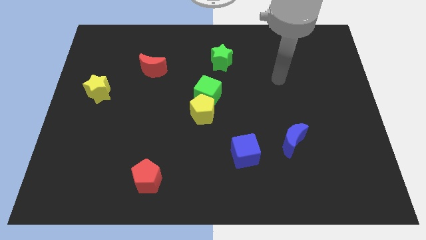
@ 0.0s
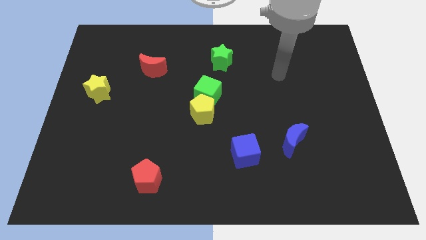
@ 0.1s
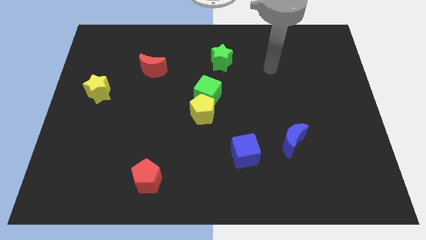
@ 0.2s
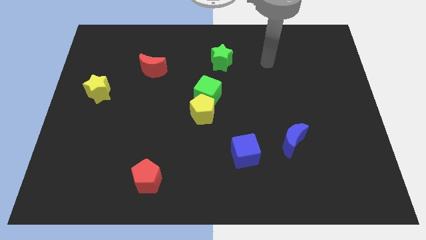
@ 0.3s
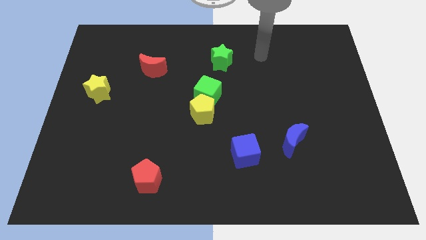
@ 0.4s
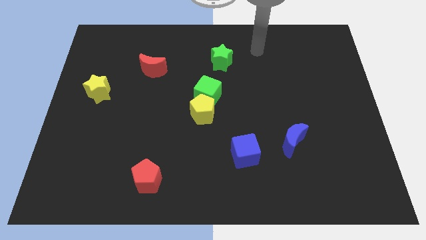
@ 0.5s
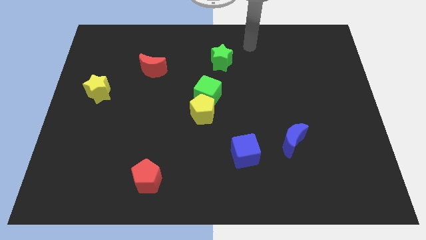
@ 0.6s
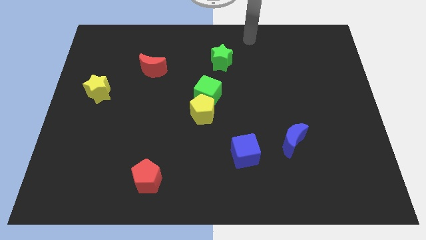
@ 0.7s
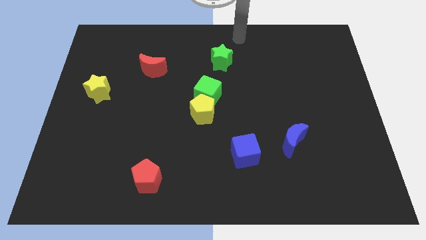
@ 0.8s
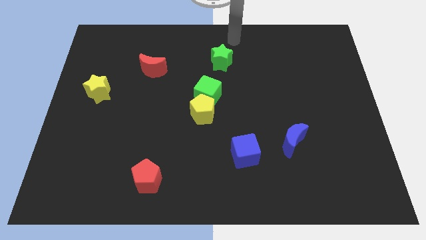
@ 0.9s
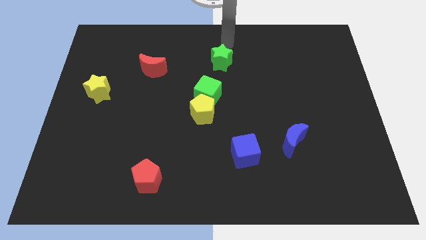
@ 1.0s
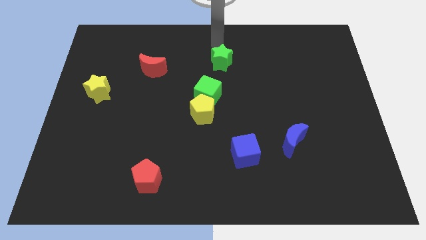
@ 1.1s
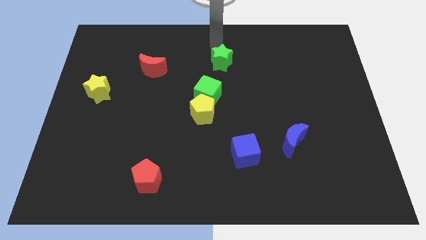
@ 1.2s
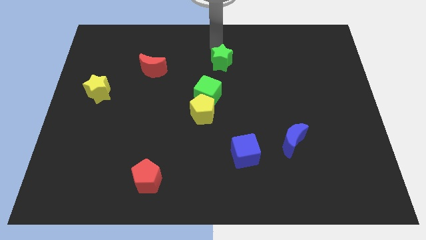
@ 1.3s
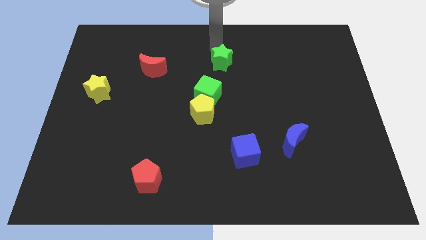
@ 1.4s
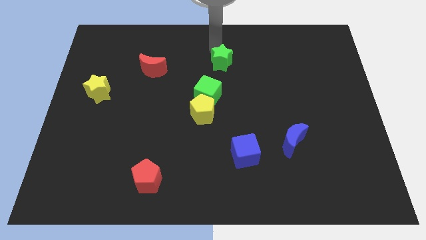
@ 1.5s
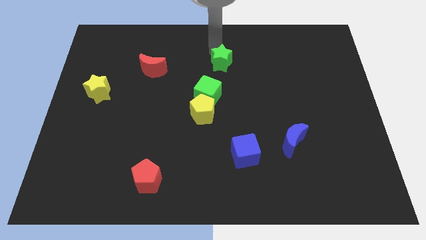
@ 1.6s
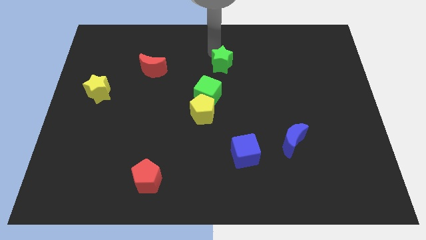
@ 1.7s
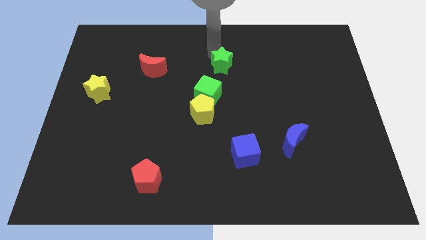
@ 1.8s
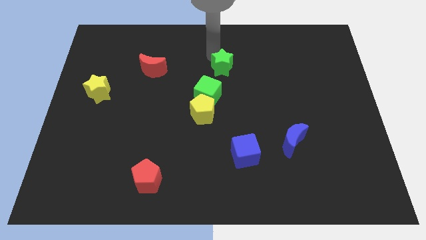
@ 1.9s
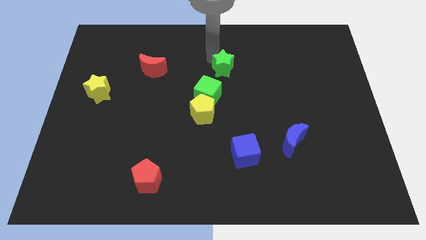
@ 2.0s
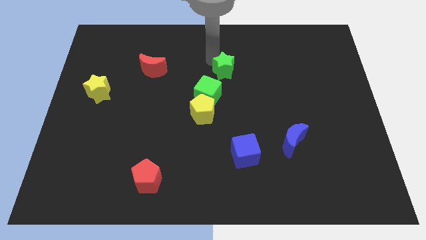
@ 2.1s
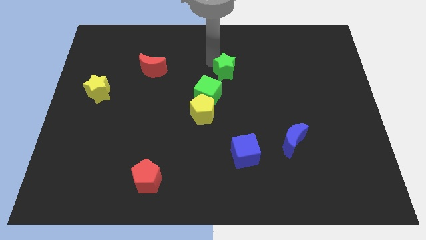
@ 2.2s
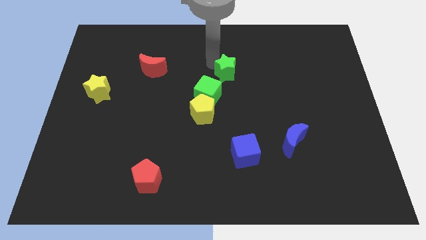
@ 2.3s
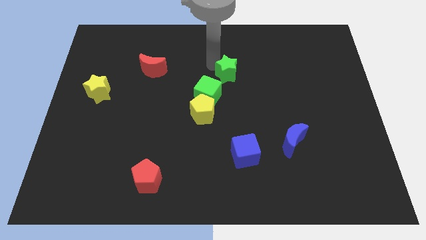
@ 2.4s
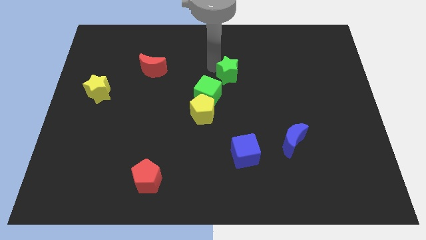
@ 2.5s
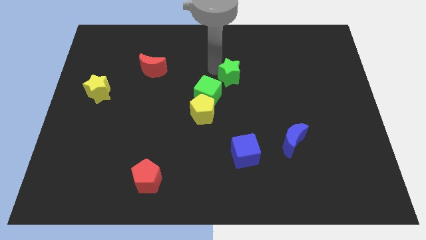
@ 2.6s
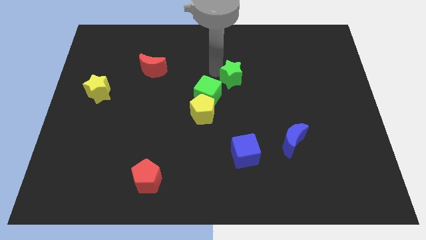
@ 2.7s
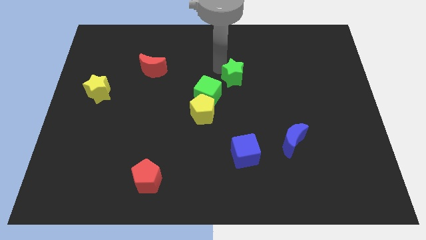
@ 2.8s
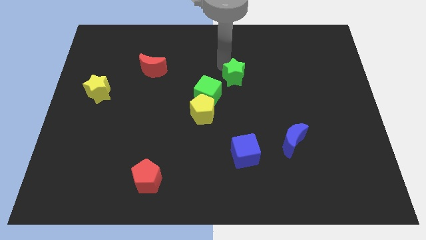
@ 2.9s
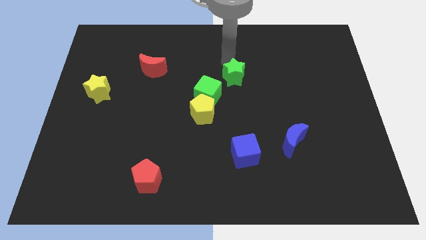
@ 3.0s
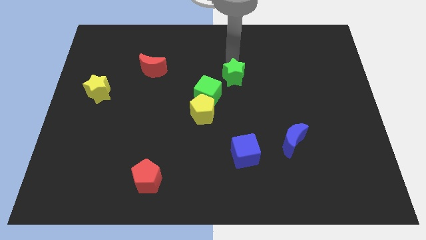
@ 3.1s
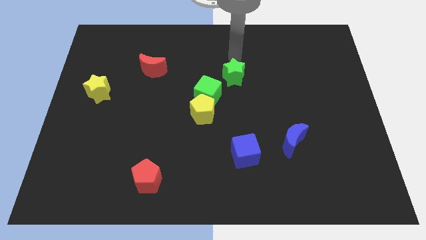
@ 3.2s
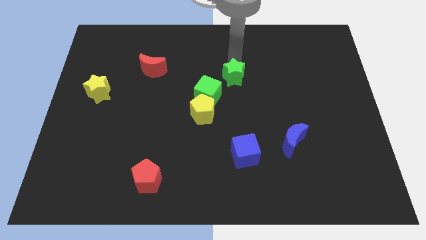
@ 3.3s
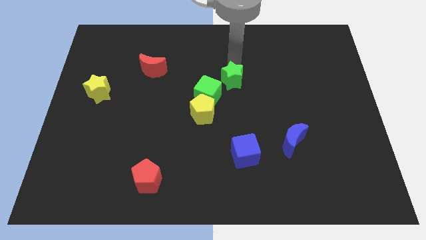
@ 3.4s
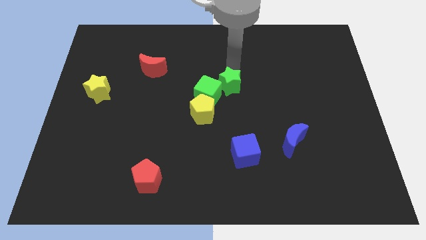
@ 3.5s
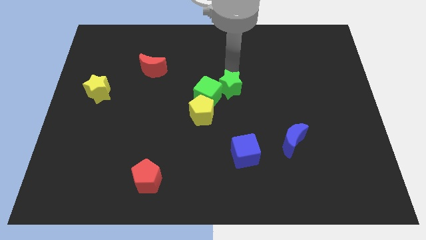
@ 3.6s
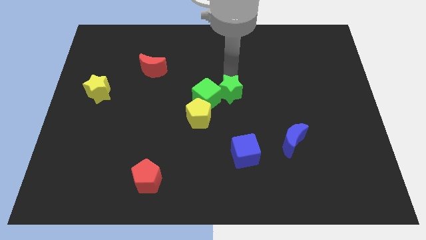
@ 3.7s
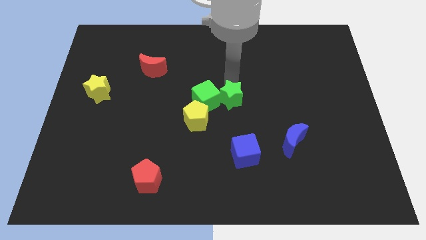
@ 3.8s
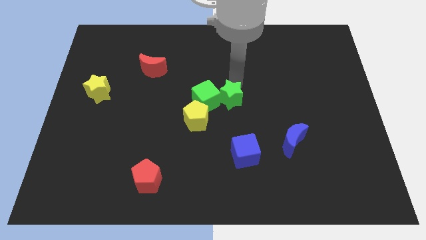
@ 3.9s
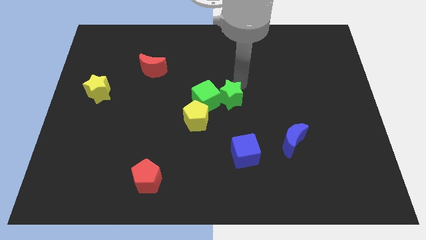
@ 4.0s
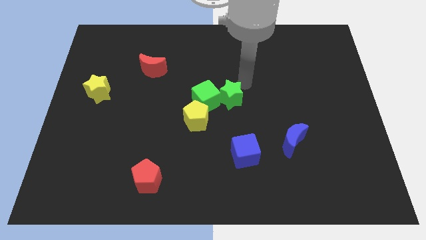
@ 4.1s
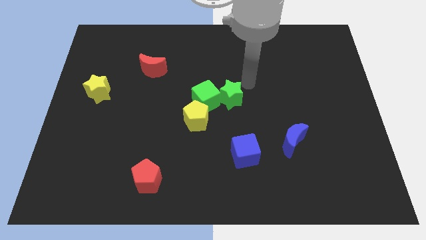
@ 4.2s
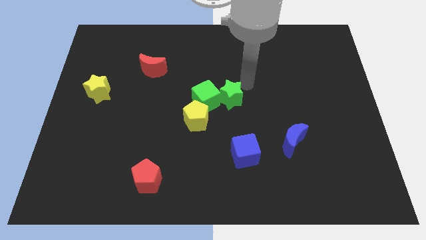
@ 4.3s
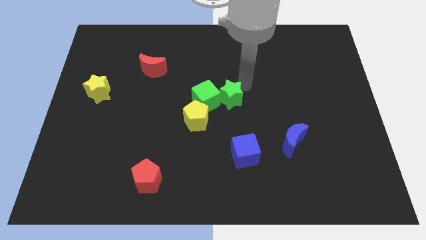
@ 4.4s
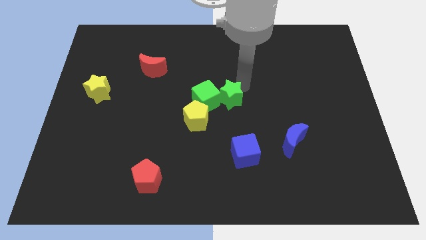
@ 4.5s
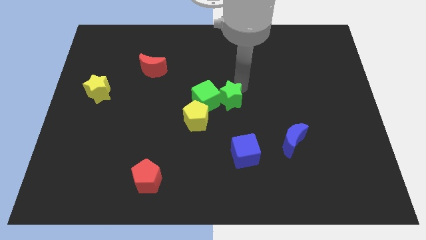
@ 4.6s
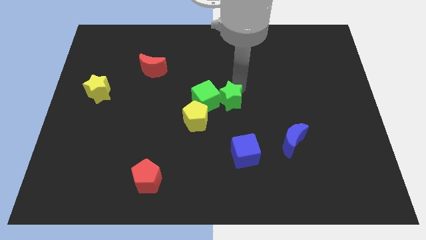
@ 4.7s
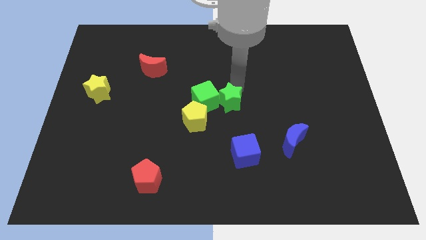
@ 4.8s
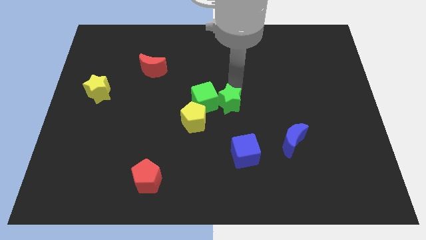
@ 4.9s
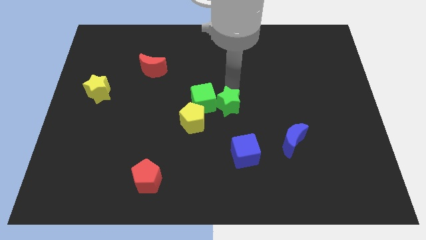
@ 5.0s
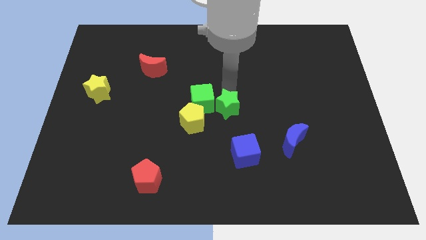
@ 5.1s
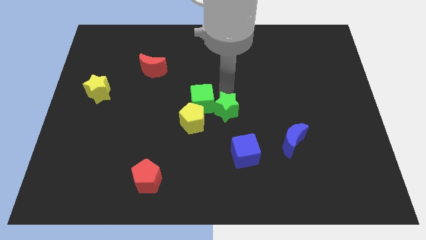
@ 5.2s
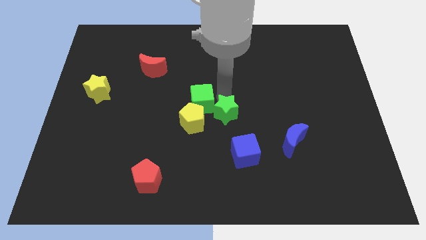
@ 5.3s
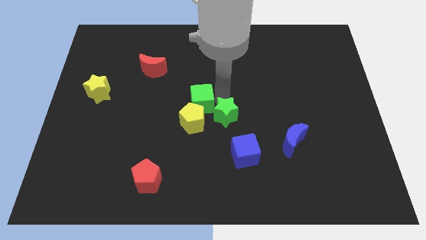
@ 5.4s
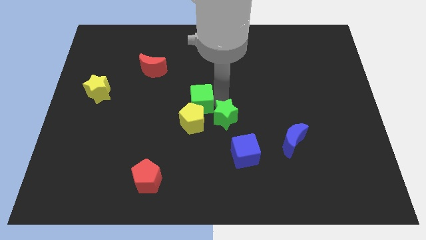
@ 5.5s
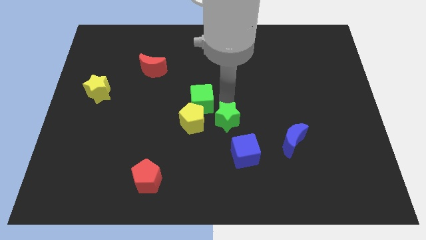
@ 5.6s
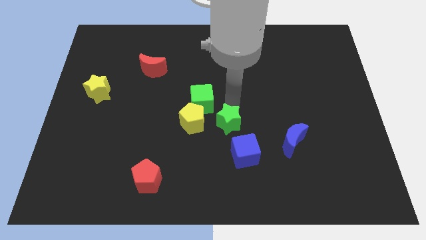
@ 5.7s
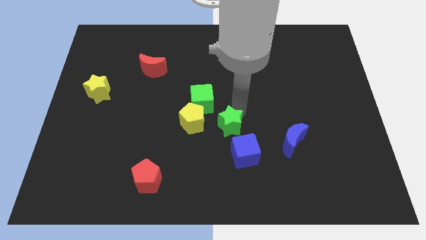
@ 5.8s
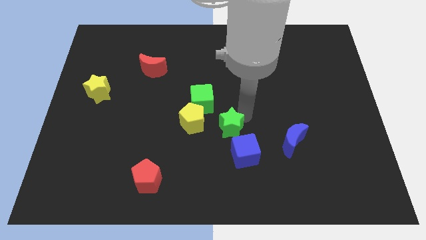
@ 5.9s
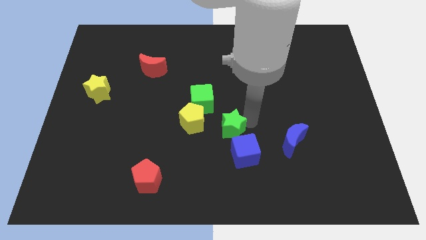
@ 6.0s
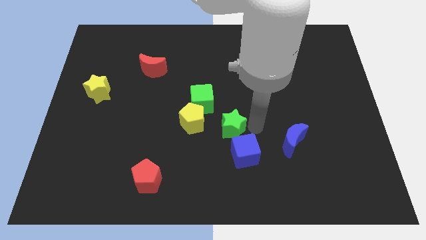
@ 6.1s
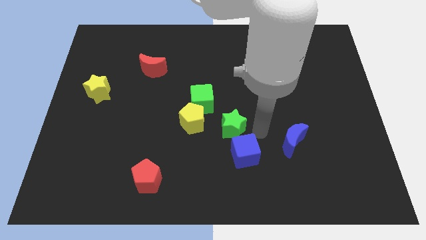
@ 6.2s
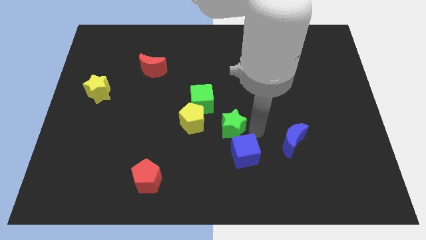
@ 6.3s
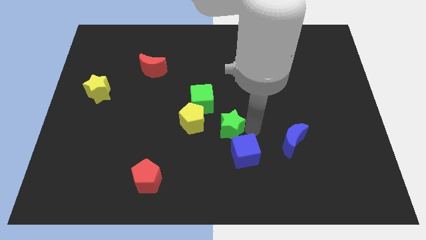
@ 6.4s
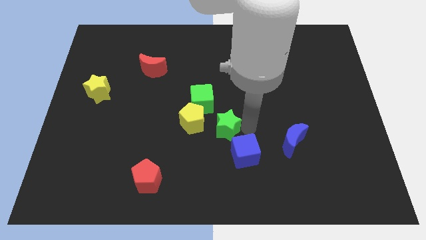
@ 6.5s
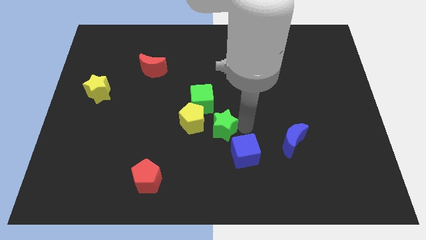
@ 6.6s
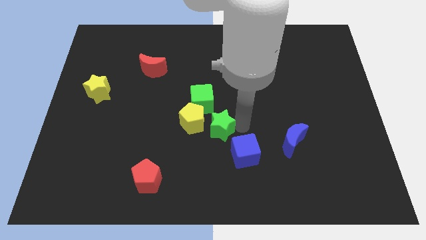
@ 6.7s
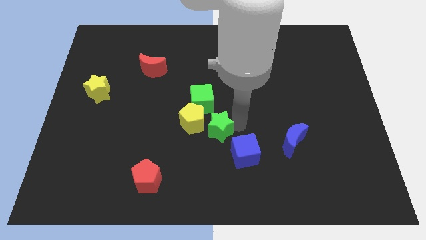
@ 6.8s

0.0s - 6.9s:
push the green star to the yellow pentagon

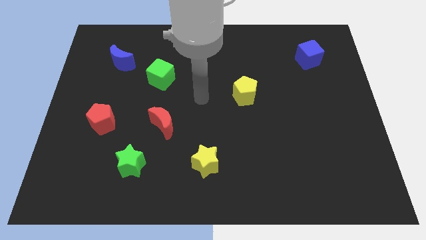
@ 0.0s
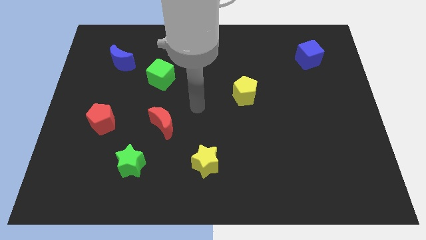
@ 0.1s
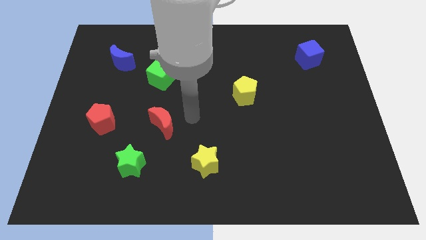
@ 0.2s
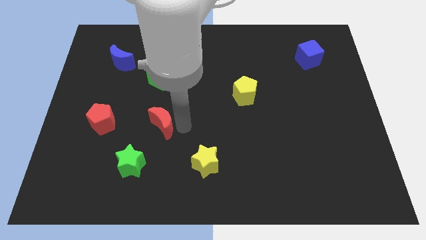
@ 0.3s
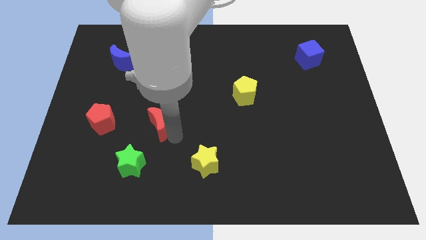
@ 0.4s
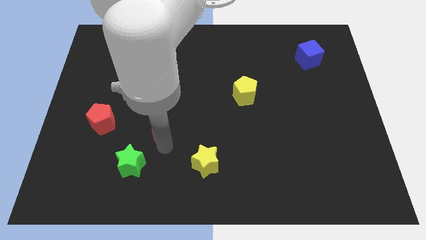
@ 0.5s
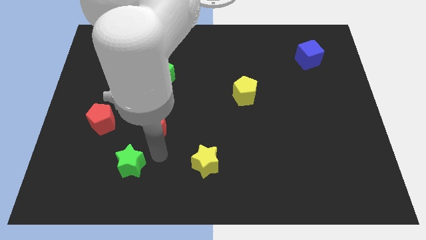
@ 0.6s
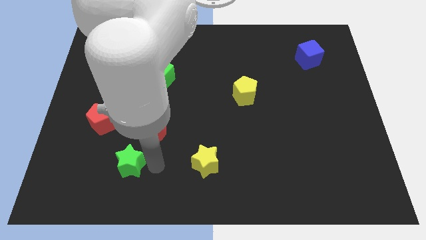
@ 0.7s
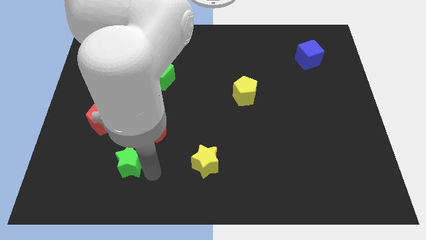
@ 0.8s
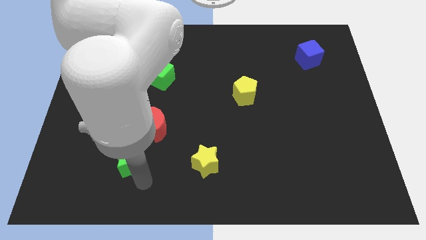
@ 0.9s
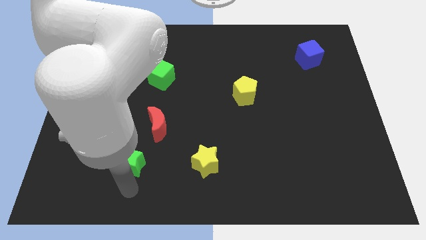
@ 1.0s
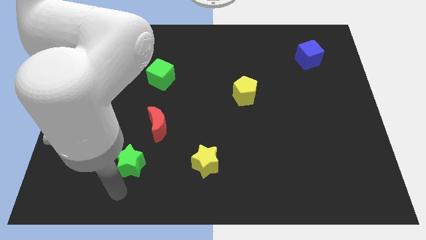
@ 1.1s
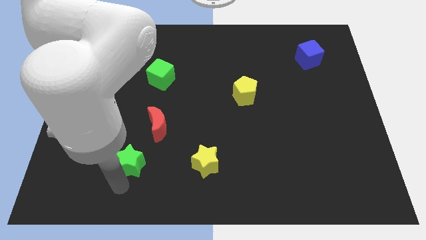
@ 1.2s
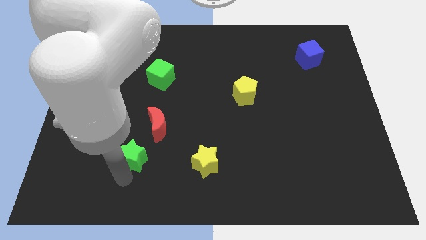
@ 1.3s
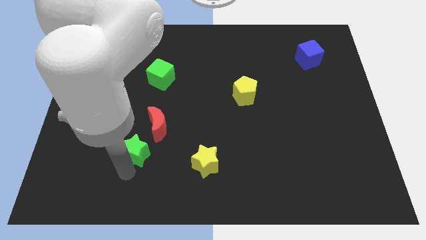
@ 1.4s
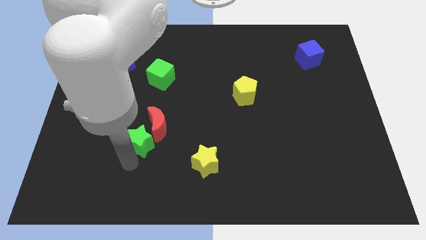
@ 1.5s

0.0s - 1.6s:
push the green star to the red moon
